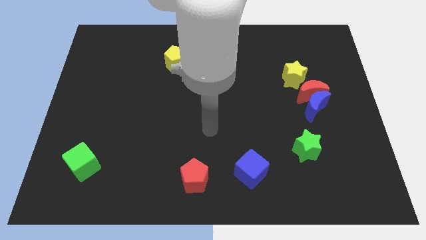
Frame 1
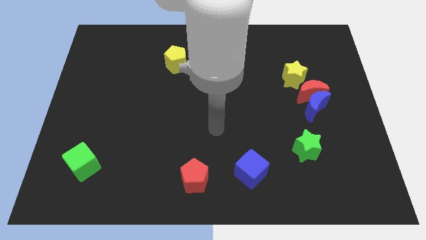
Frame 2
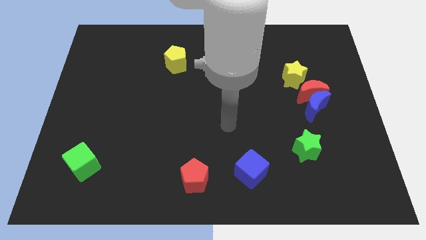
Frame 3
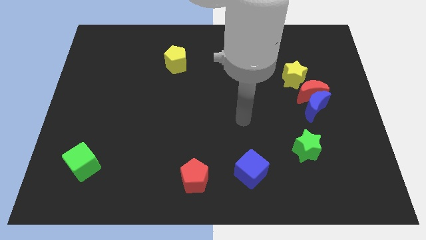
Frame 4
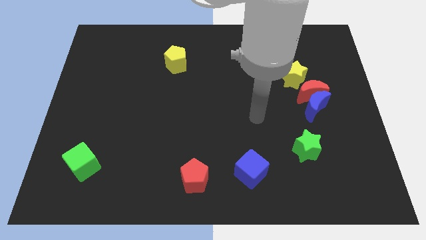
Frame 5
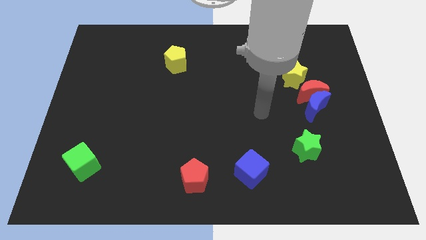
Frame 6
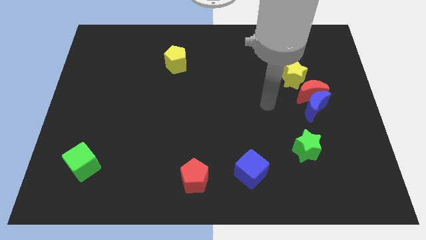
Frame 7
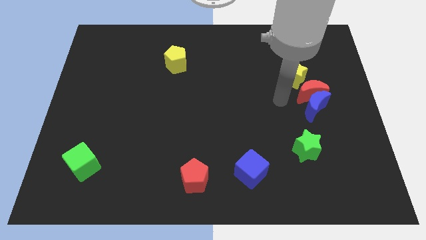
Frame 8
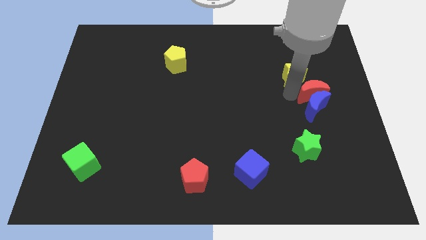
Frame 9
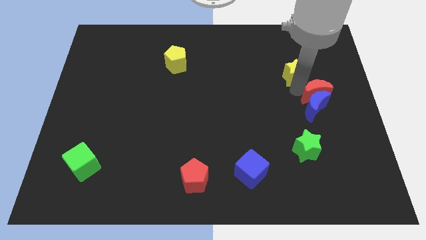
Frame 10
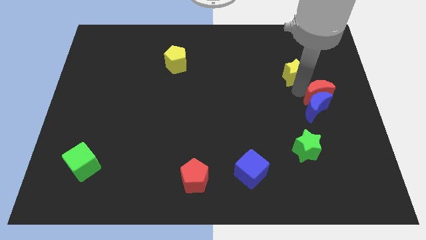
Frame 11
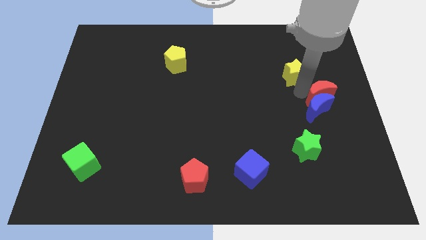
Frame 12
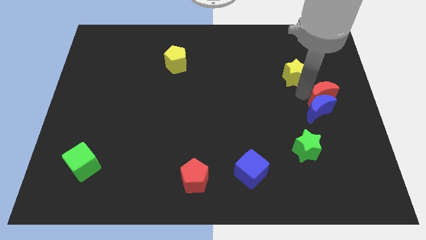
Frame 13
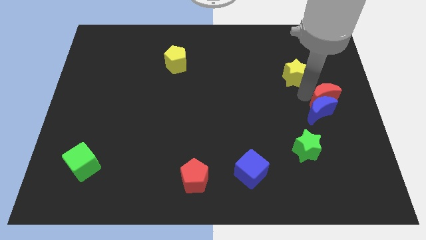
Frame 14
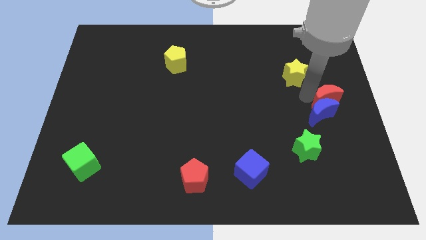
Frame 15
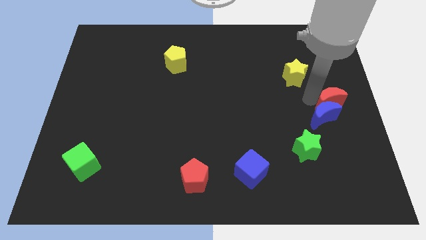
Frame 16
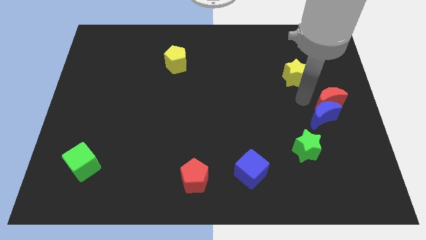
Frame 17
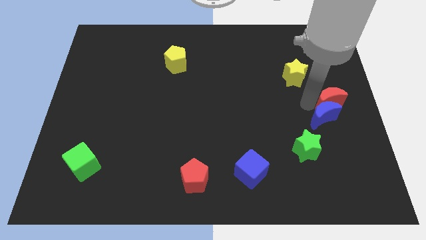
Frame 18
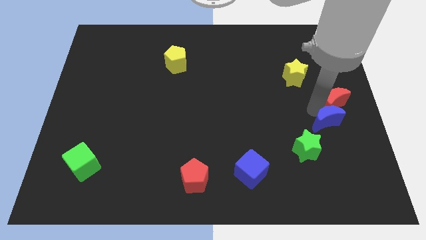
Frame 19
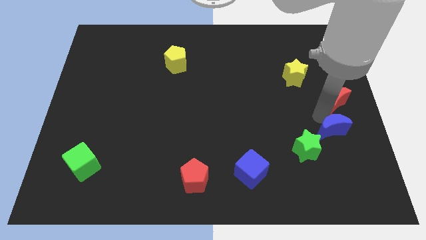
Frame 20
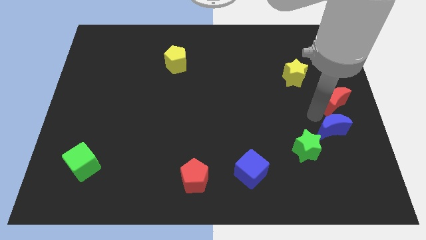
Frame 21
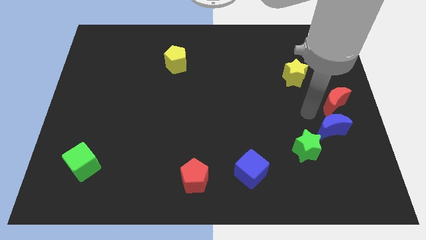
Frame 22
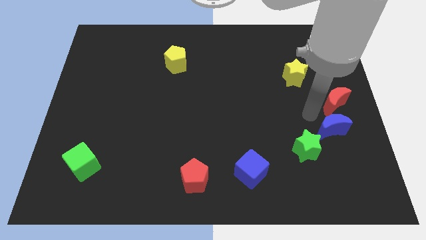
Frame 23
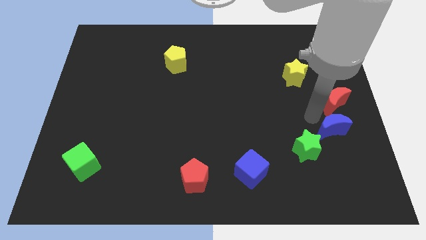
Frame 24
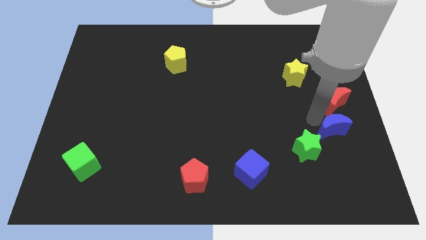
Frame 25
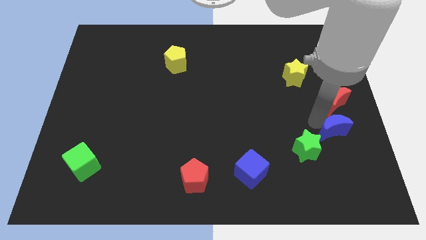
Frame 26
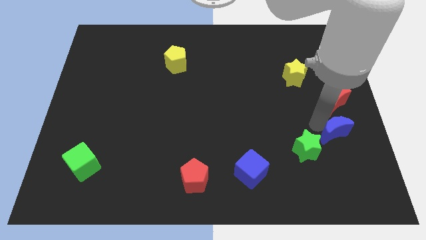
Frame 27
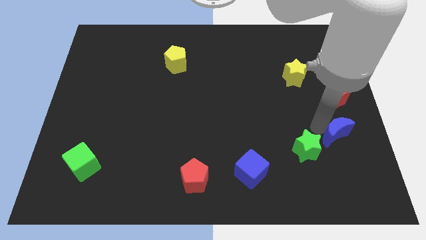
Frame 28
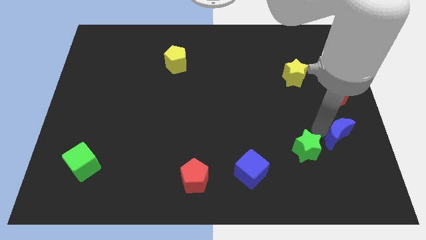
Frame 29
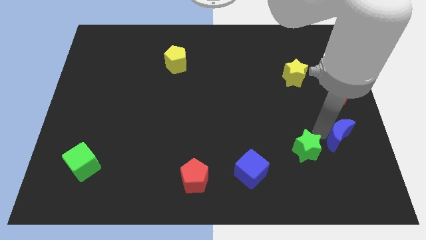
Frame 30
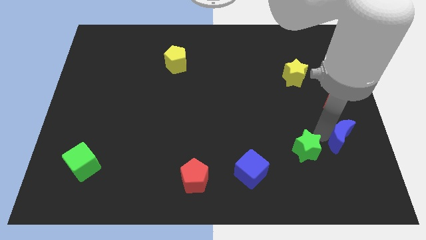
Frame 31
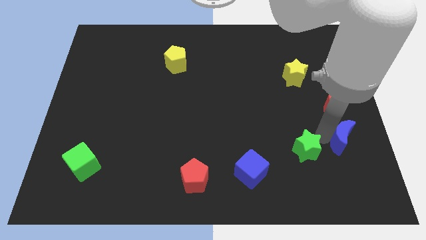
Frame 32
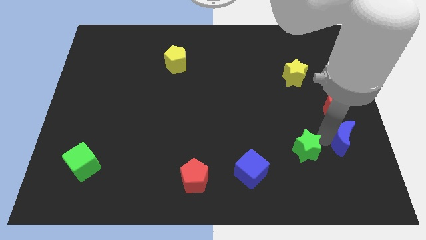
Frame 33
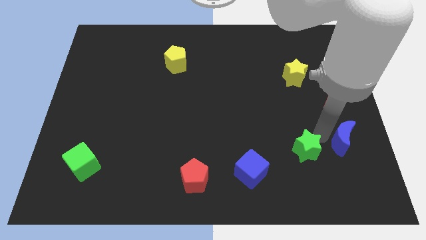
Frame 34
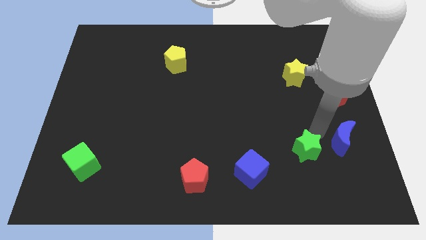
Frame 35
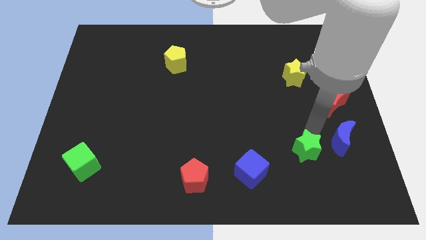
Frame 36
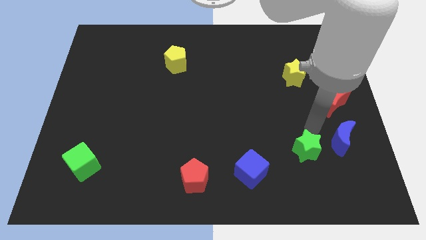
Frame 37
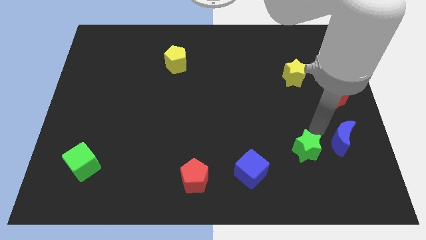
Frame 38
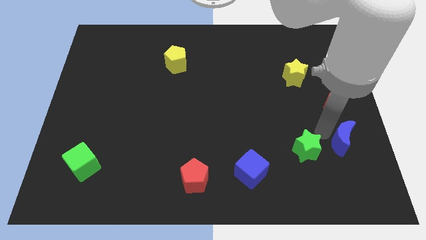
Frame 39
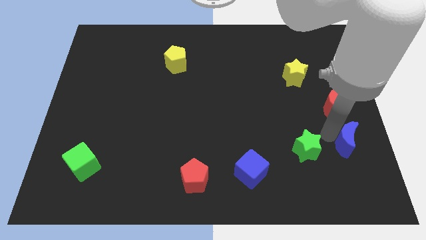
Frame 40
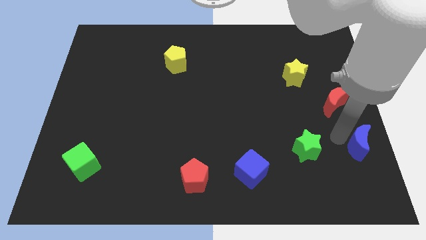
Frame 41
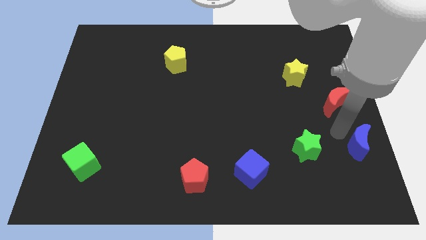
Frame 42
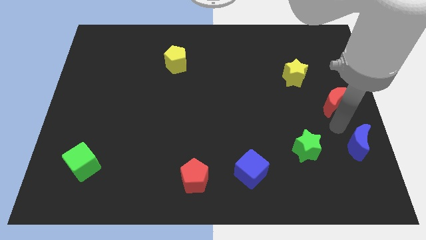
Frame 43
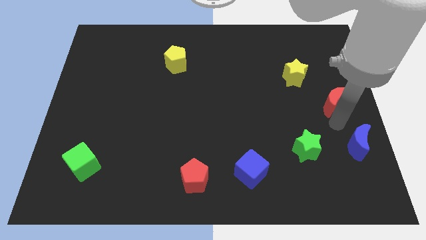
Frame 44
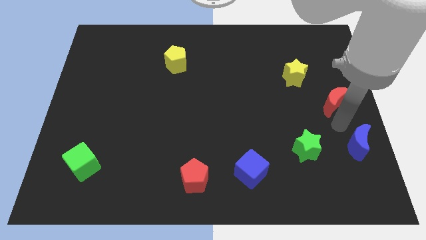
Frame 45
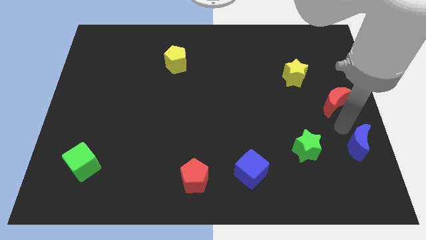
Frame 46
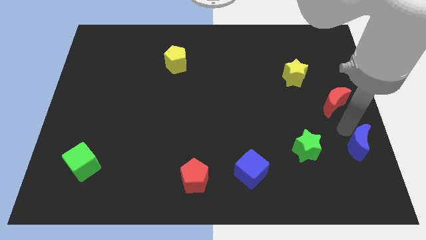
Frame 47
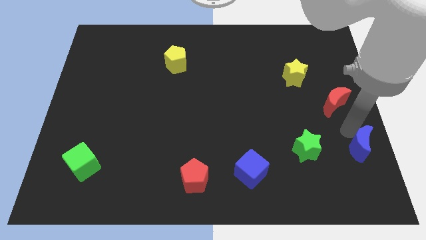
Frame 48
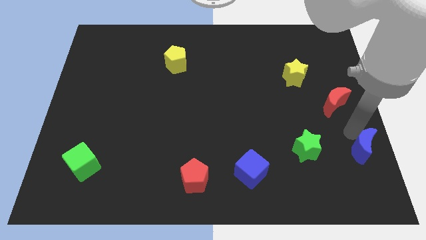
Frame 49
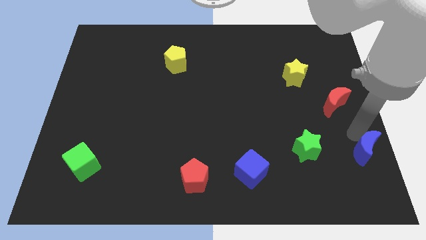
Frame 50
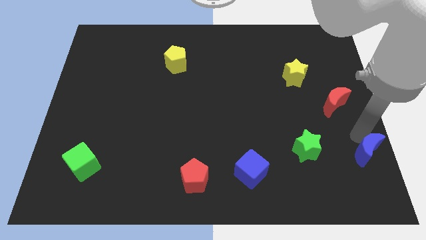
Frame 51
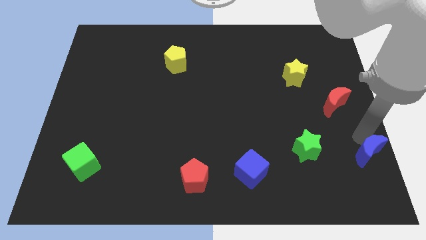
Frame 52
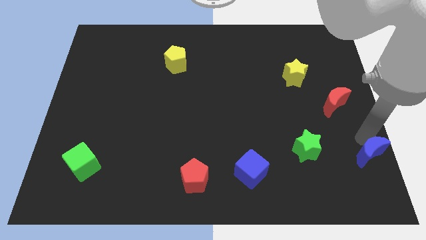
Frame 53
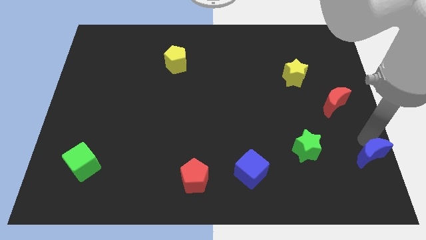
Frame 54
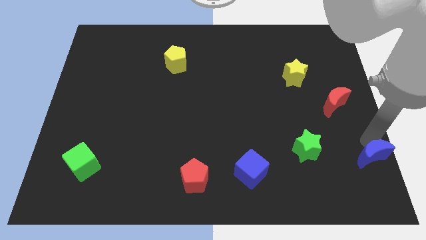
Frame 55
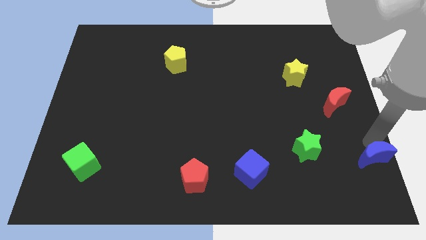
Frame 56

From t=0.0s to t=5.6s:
move the blue moon to the bottom right of the board
